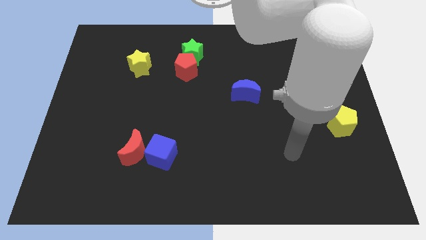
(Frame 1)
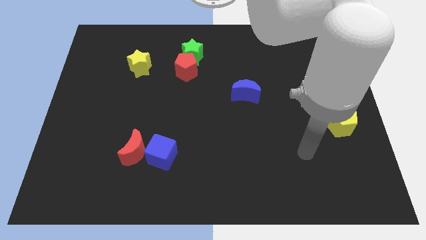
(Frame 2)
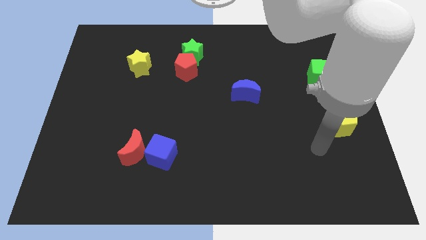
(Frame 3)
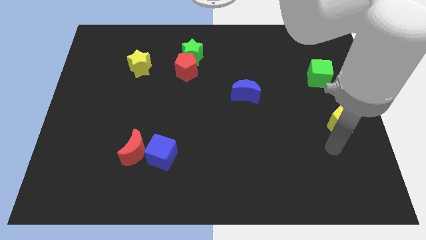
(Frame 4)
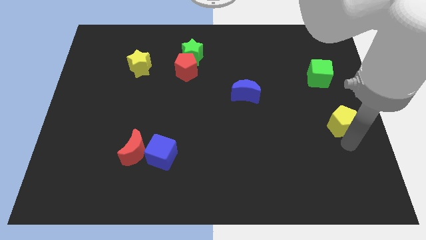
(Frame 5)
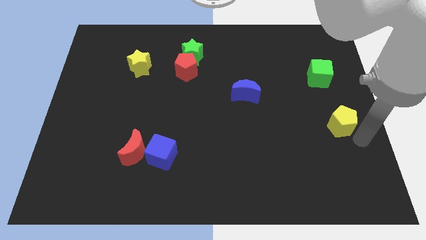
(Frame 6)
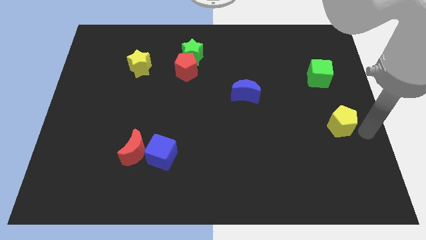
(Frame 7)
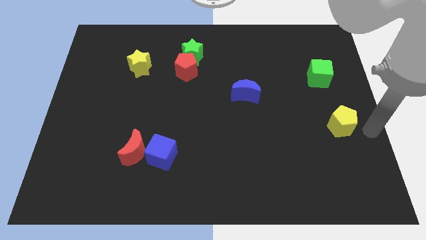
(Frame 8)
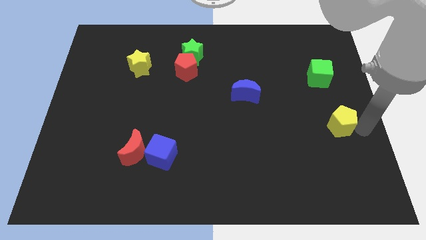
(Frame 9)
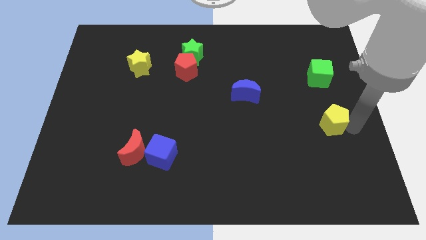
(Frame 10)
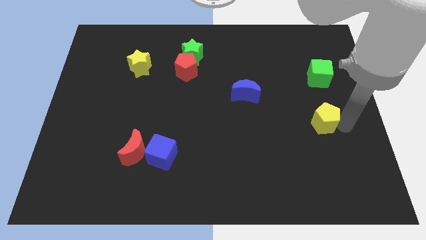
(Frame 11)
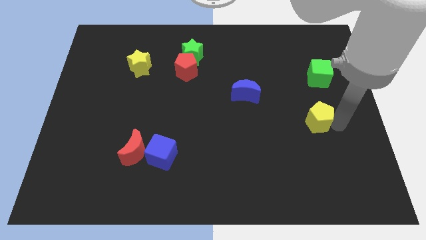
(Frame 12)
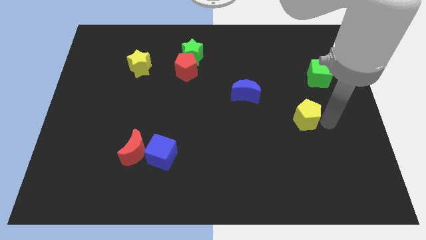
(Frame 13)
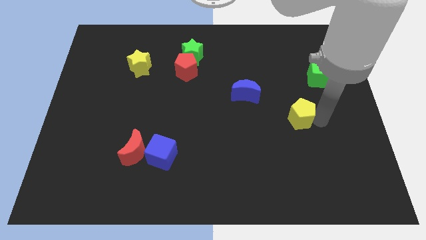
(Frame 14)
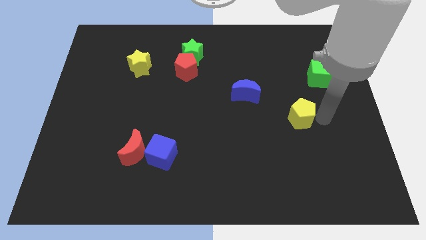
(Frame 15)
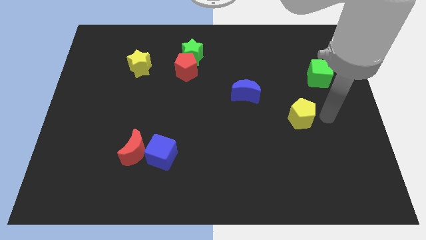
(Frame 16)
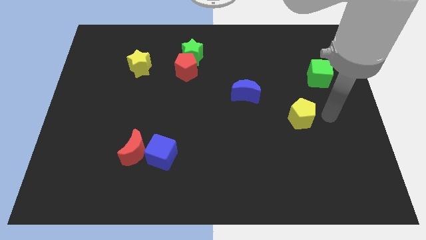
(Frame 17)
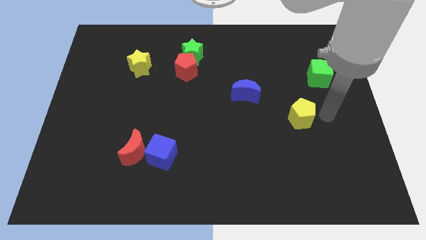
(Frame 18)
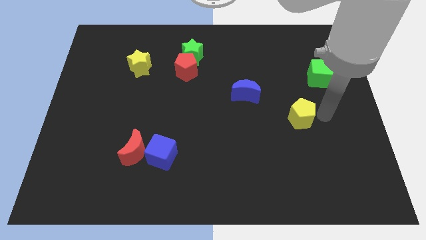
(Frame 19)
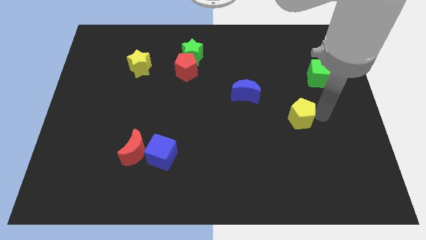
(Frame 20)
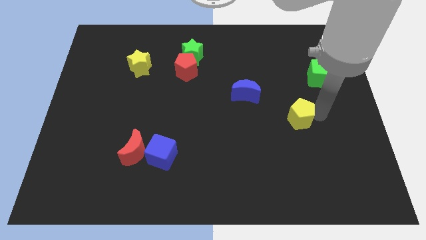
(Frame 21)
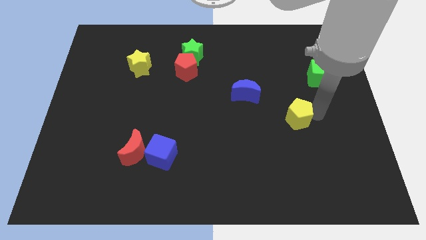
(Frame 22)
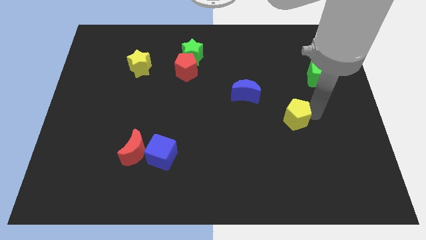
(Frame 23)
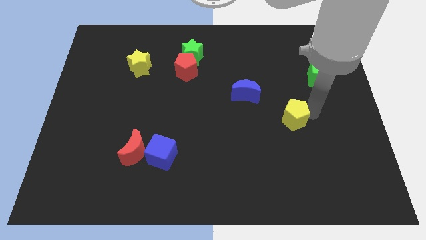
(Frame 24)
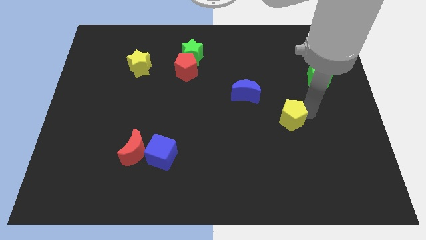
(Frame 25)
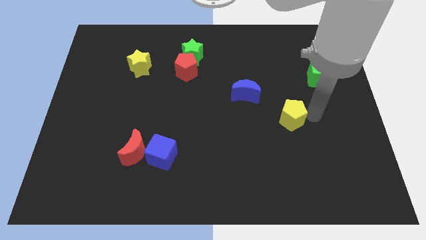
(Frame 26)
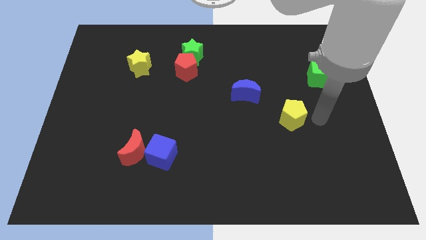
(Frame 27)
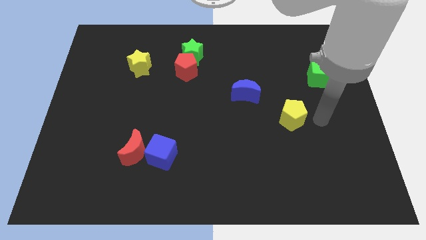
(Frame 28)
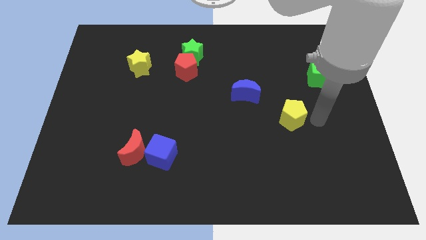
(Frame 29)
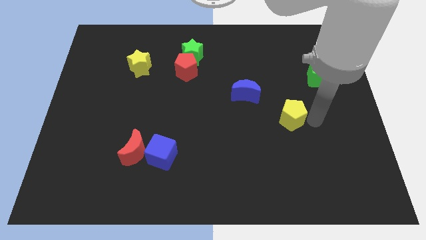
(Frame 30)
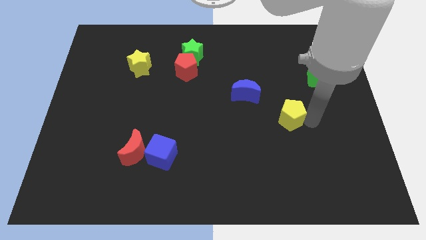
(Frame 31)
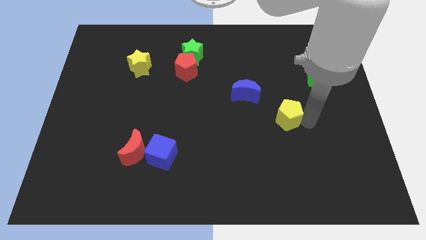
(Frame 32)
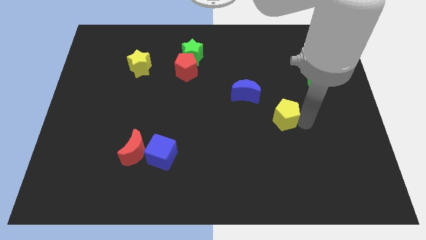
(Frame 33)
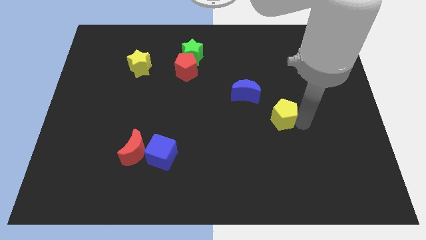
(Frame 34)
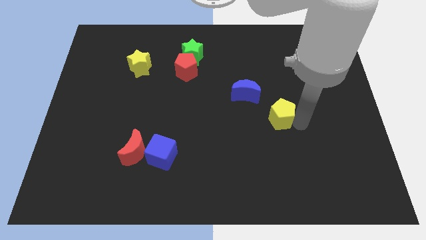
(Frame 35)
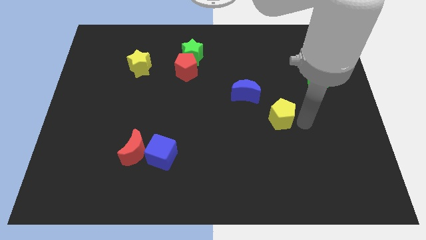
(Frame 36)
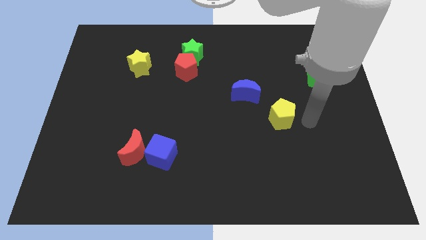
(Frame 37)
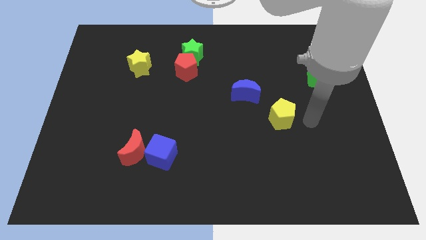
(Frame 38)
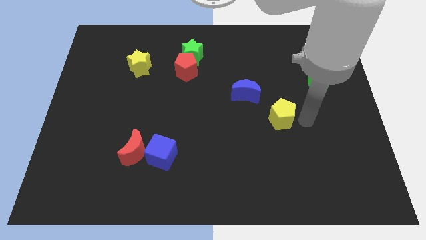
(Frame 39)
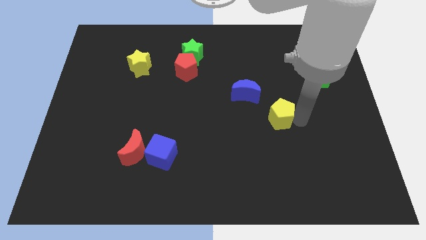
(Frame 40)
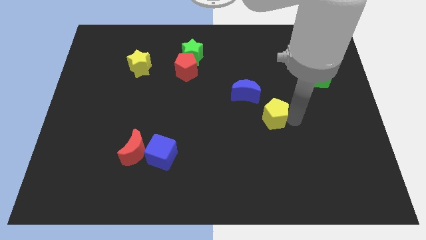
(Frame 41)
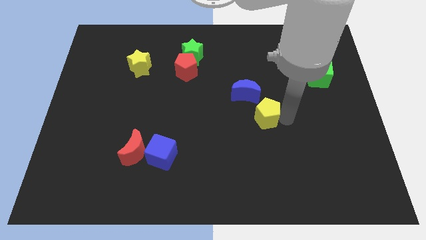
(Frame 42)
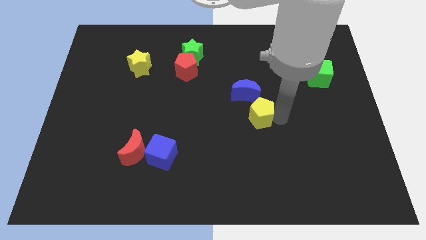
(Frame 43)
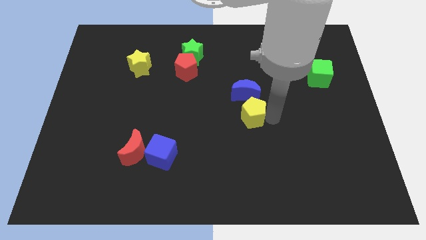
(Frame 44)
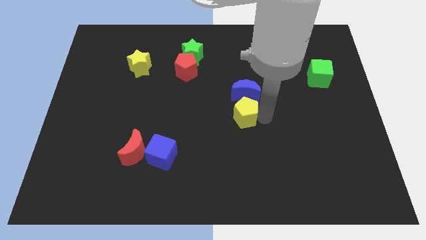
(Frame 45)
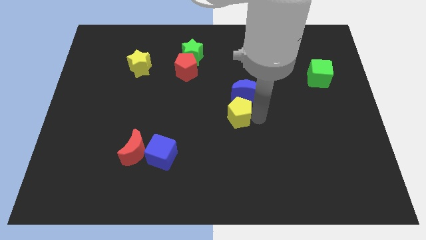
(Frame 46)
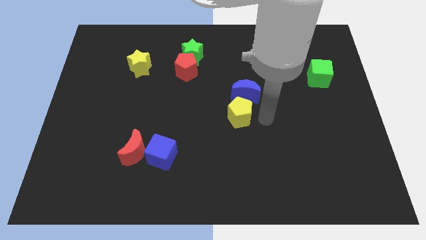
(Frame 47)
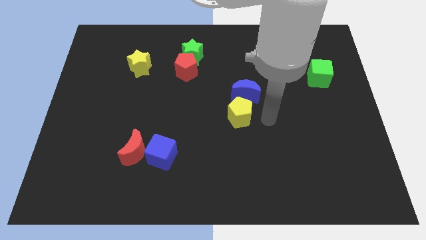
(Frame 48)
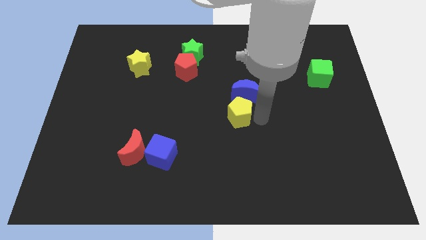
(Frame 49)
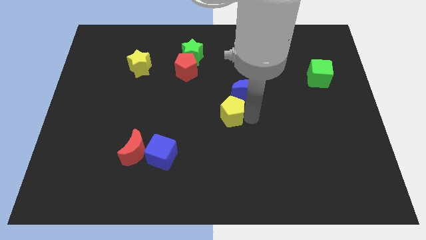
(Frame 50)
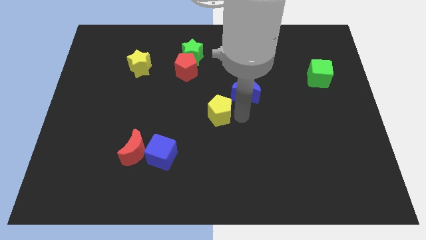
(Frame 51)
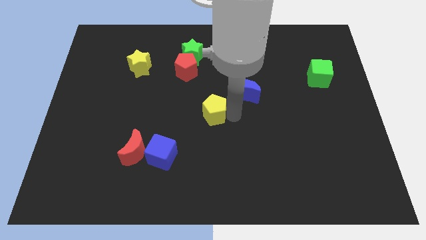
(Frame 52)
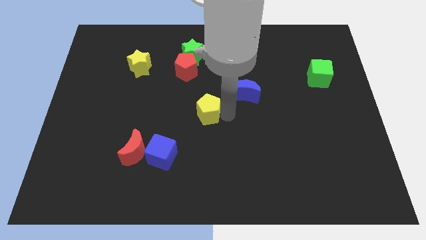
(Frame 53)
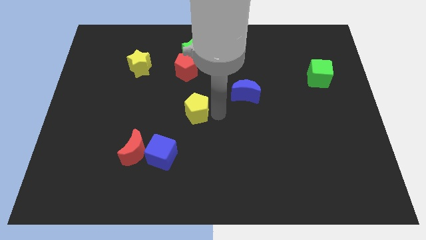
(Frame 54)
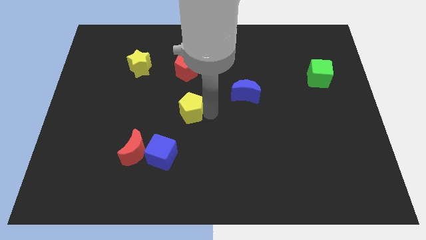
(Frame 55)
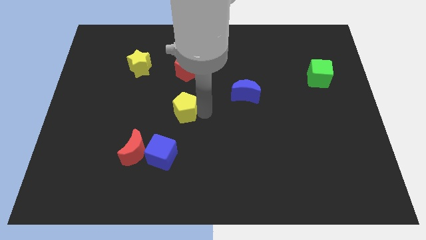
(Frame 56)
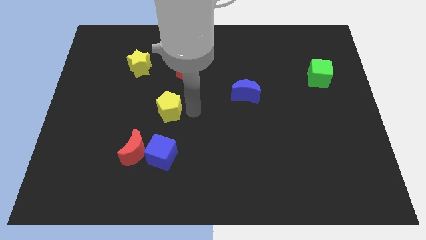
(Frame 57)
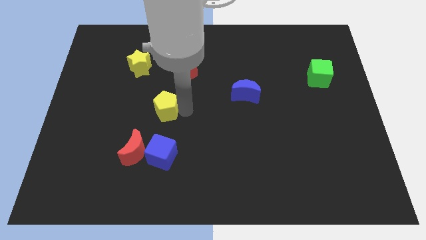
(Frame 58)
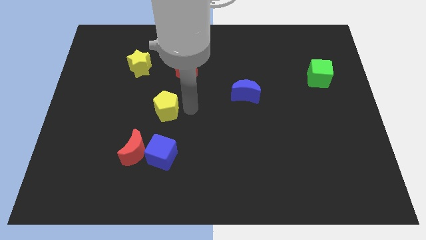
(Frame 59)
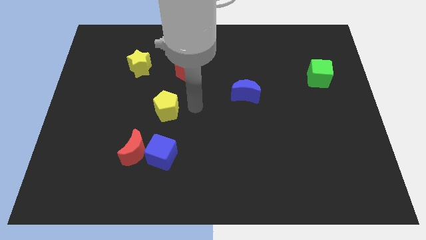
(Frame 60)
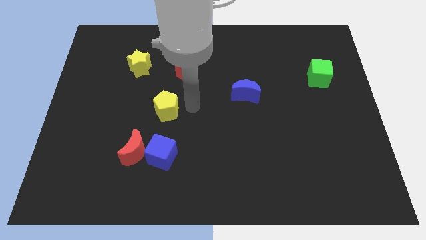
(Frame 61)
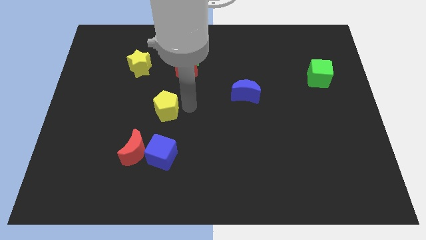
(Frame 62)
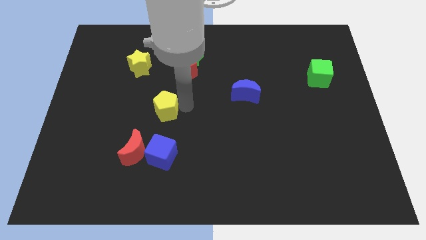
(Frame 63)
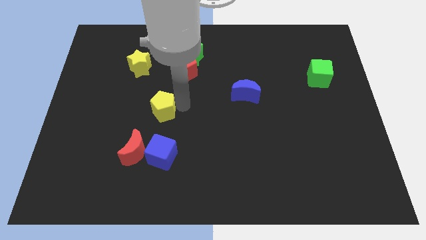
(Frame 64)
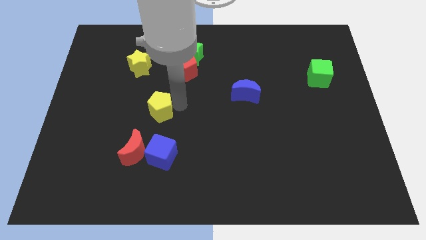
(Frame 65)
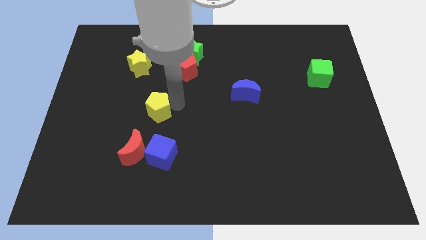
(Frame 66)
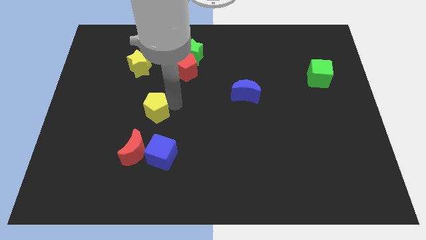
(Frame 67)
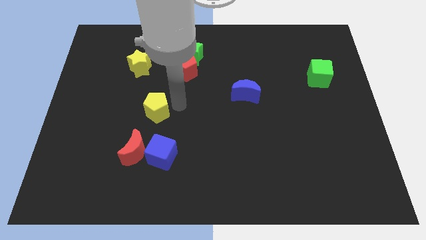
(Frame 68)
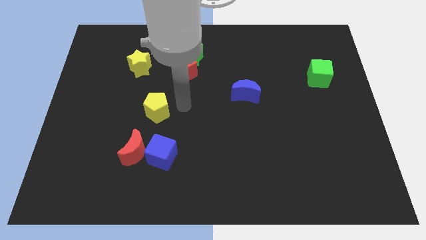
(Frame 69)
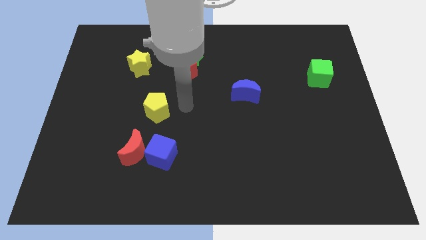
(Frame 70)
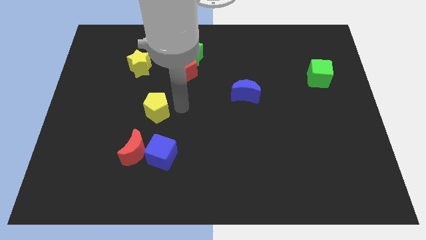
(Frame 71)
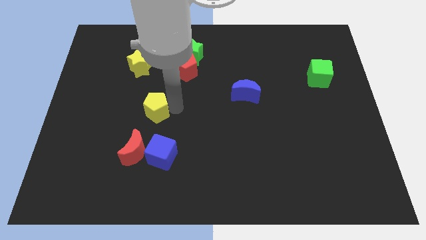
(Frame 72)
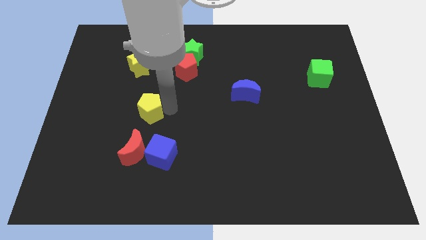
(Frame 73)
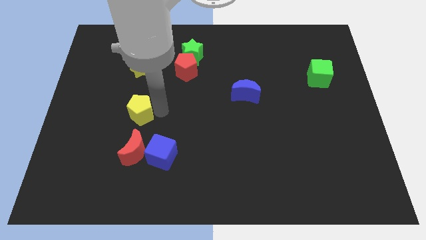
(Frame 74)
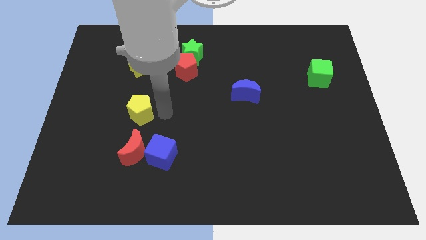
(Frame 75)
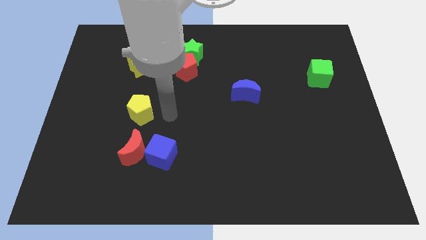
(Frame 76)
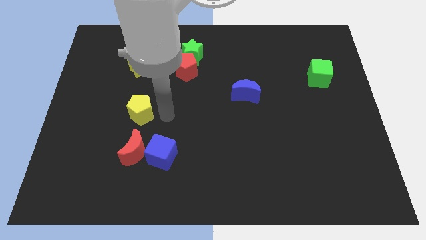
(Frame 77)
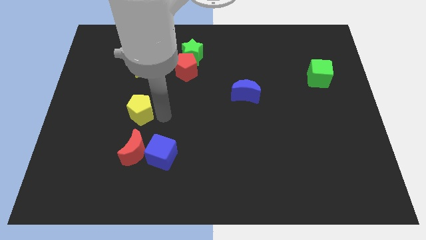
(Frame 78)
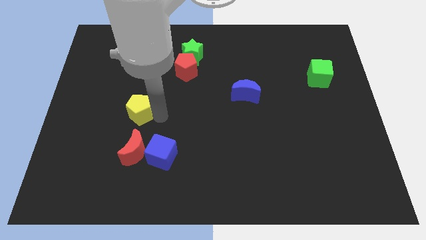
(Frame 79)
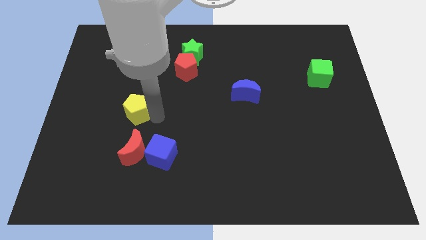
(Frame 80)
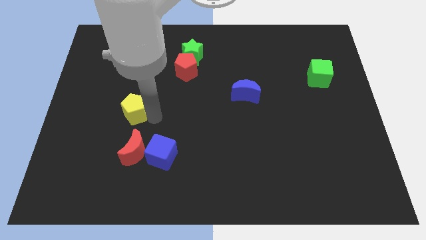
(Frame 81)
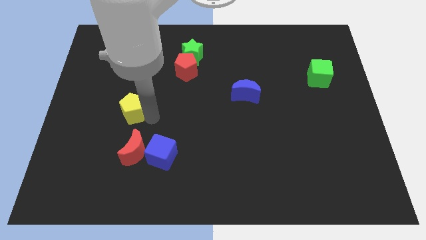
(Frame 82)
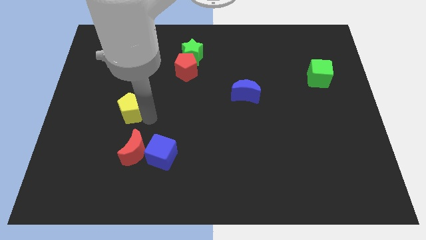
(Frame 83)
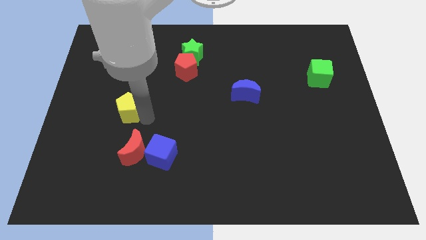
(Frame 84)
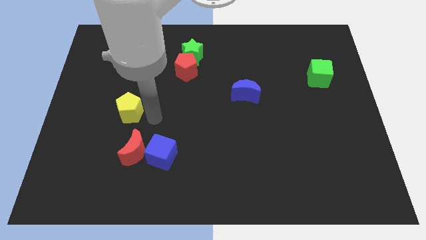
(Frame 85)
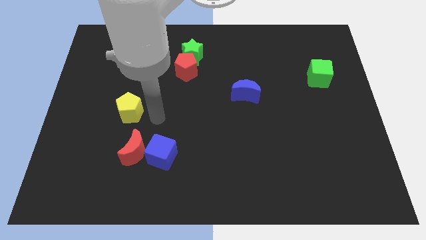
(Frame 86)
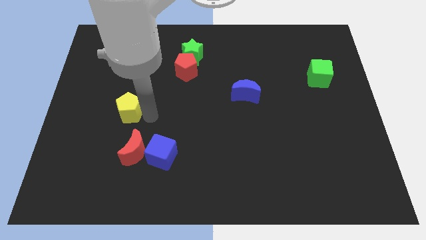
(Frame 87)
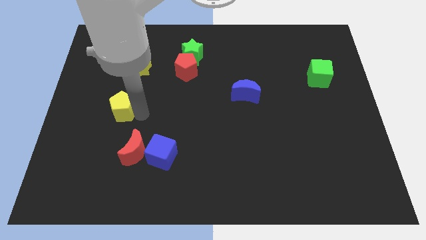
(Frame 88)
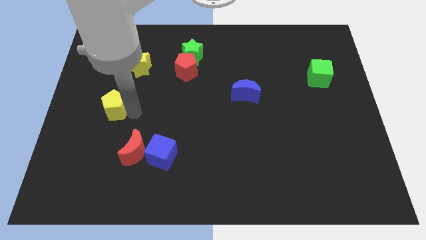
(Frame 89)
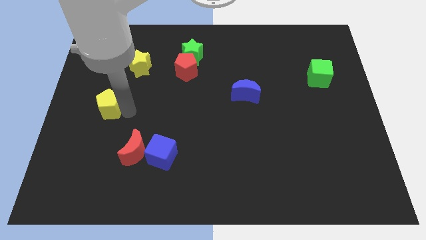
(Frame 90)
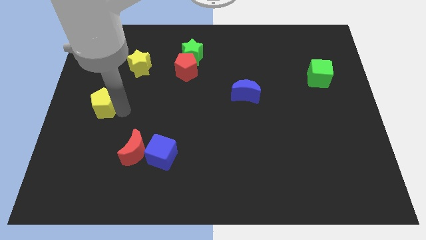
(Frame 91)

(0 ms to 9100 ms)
move the yellow pentagon to the left side of the board
